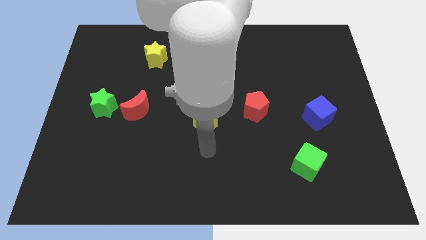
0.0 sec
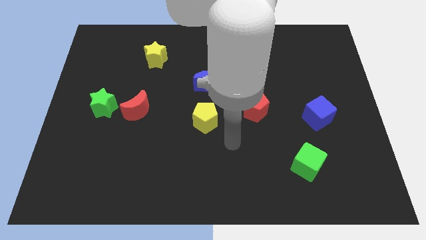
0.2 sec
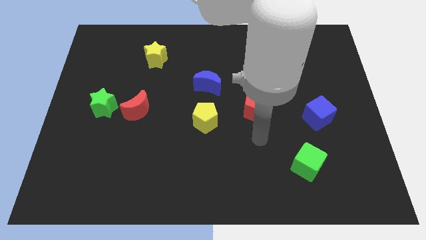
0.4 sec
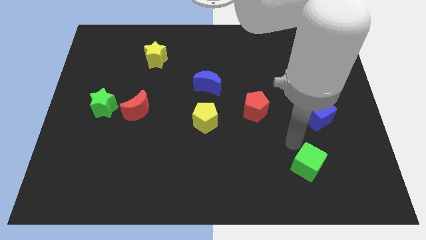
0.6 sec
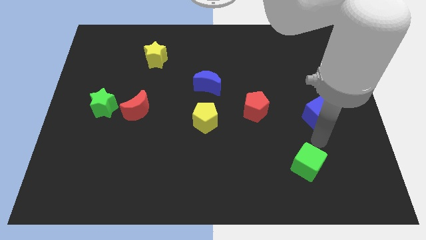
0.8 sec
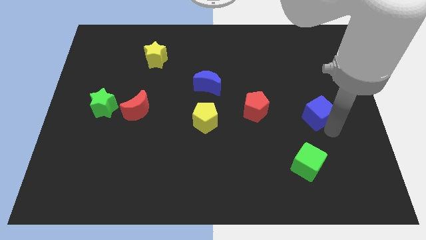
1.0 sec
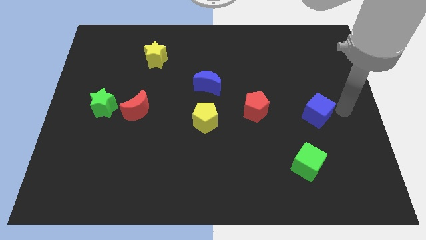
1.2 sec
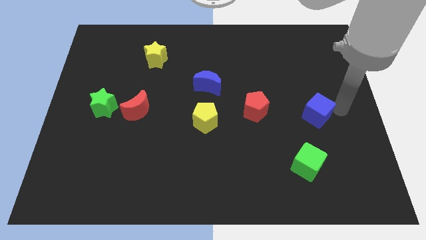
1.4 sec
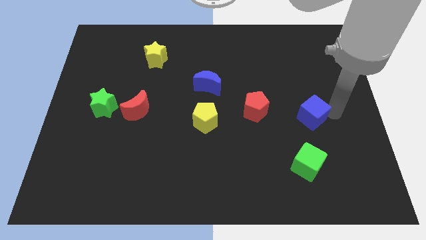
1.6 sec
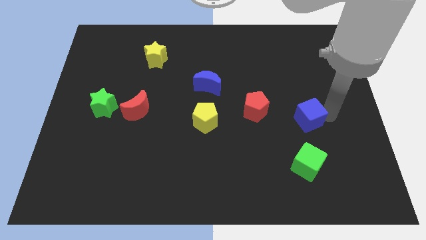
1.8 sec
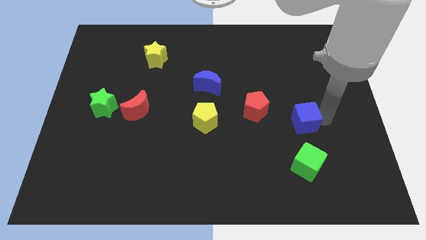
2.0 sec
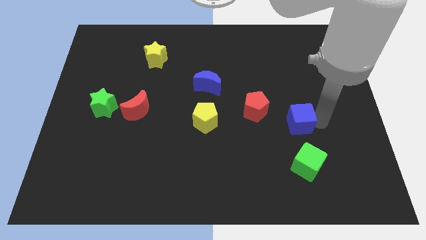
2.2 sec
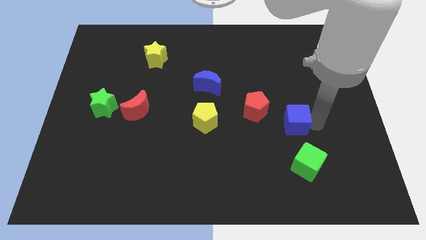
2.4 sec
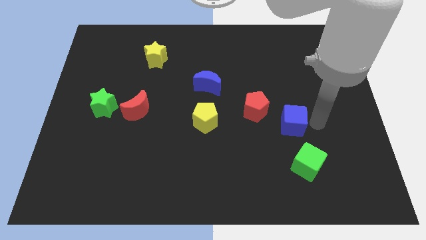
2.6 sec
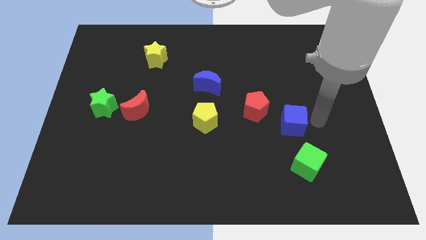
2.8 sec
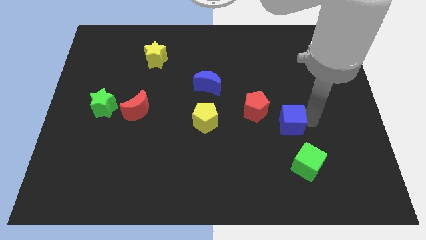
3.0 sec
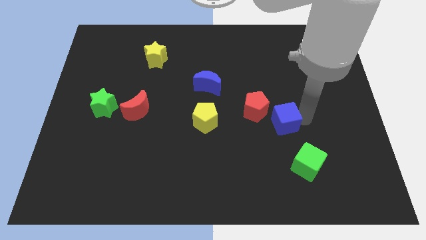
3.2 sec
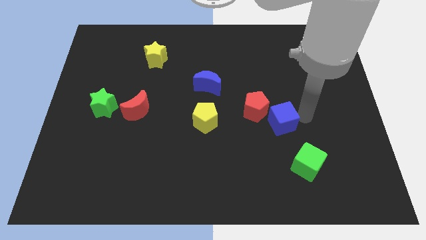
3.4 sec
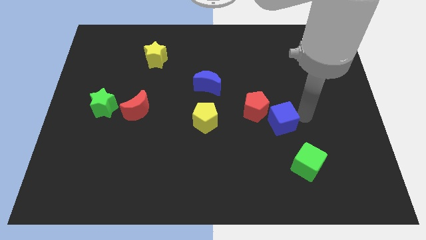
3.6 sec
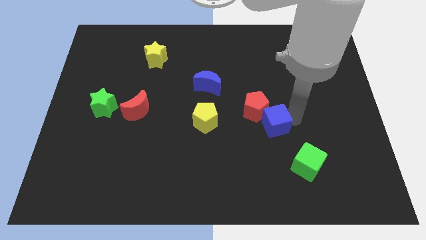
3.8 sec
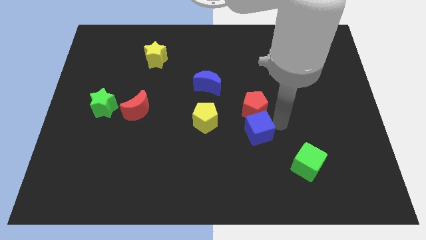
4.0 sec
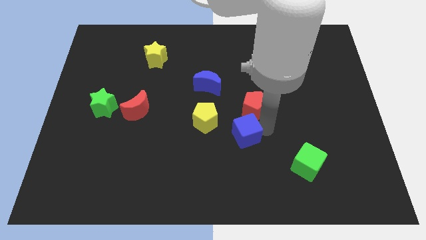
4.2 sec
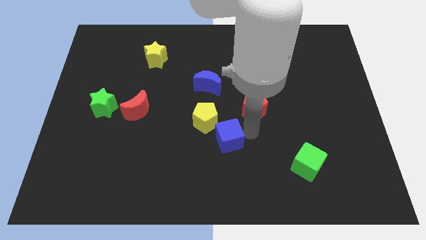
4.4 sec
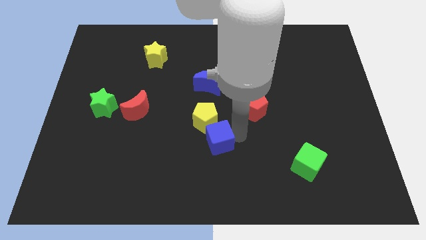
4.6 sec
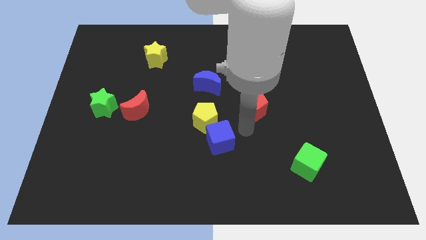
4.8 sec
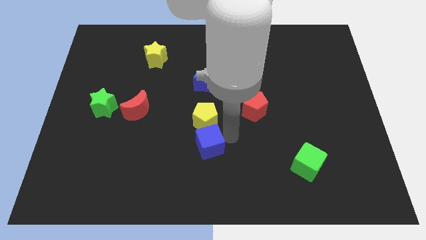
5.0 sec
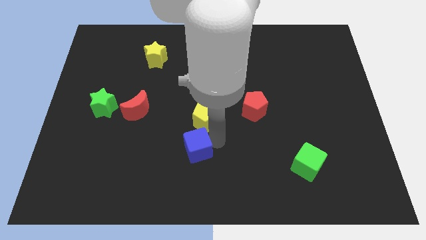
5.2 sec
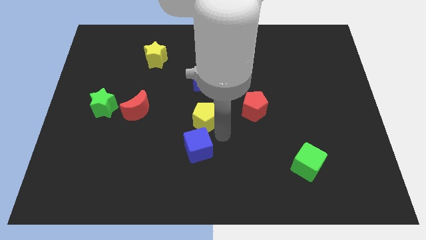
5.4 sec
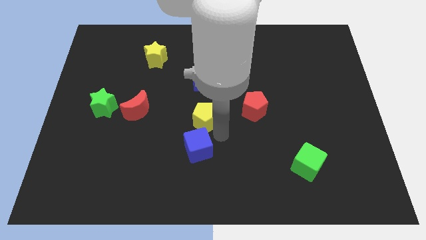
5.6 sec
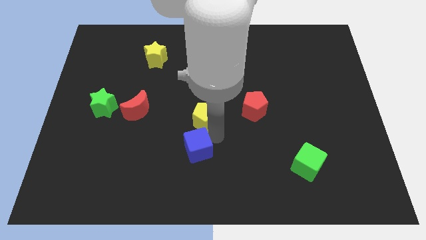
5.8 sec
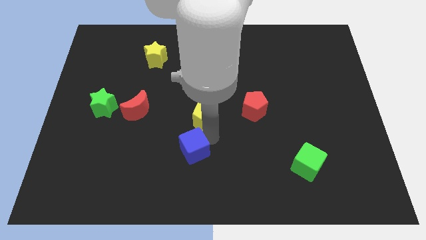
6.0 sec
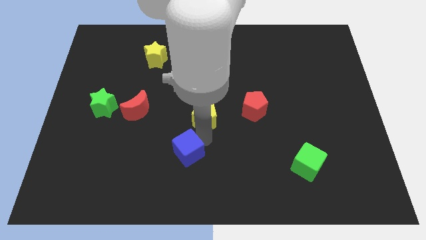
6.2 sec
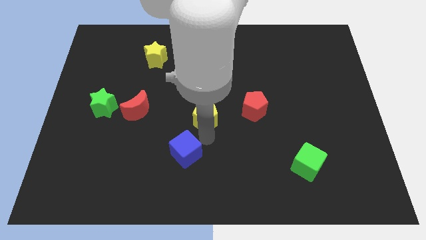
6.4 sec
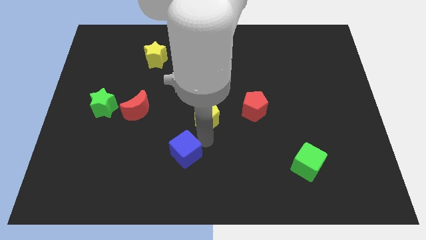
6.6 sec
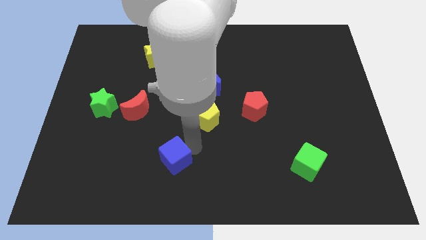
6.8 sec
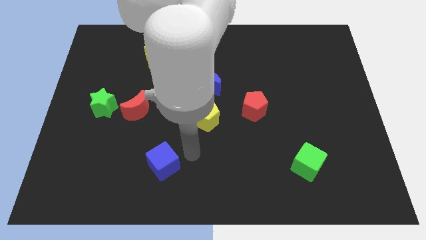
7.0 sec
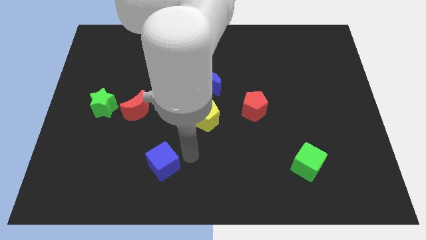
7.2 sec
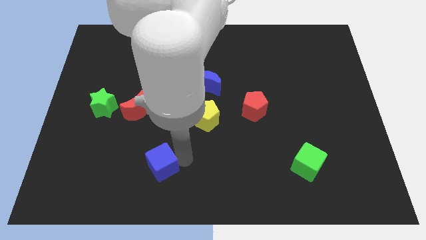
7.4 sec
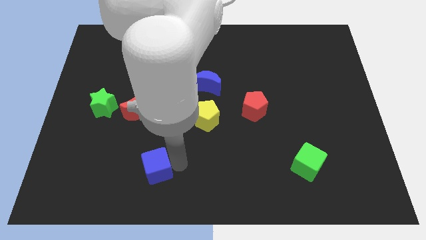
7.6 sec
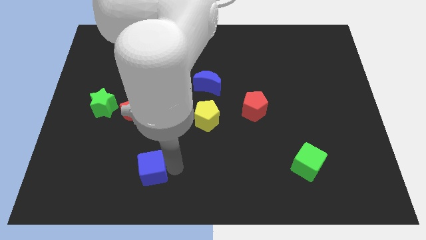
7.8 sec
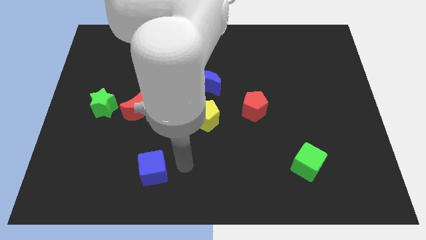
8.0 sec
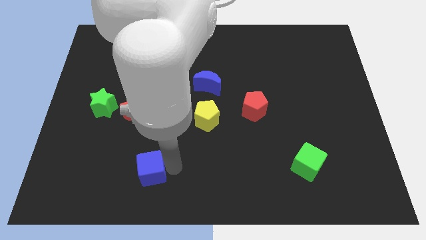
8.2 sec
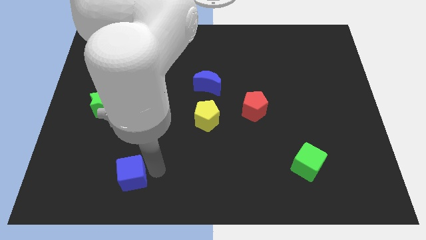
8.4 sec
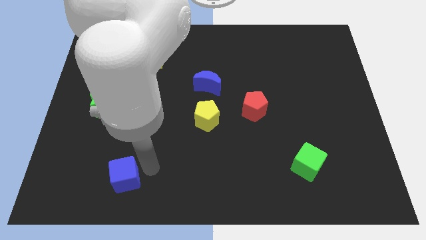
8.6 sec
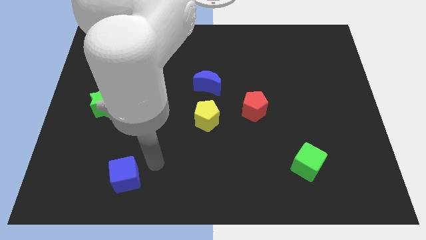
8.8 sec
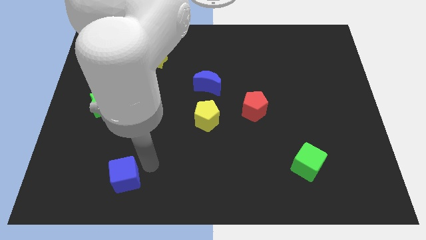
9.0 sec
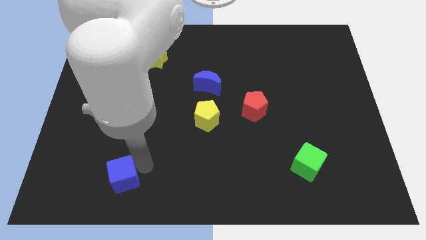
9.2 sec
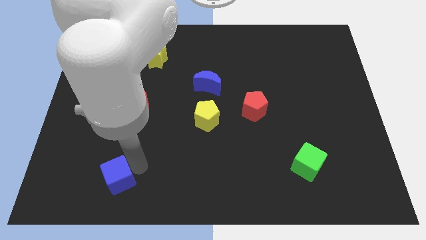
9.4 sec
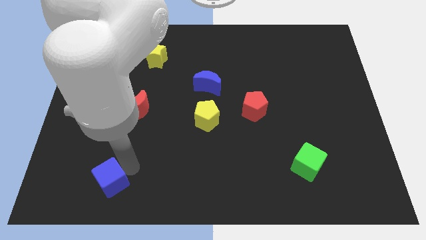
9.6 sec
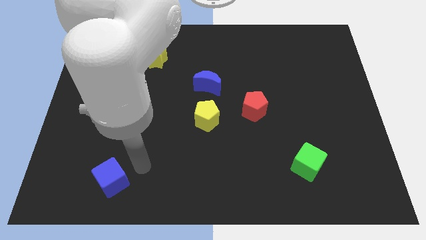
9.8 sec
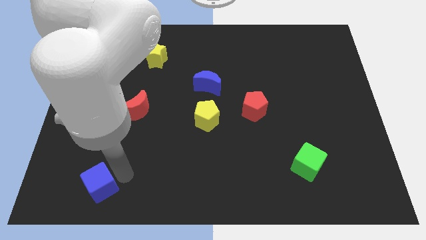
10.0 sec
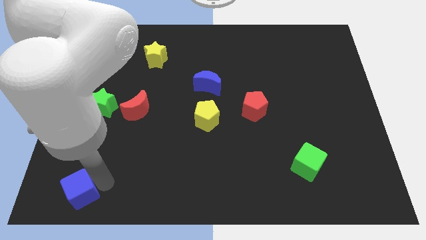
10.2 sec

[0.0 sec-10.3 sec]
put the blue cube to the bottom left corner
